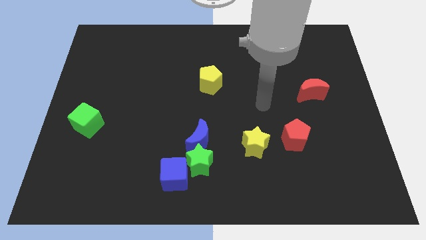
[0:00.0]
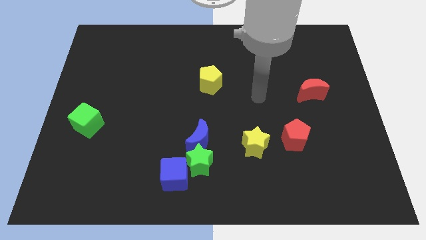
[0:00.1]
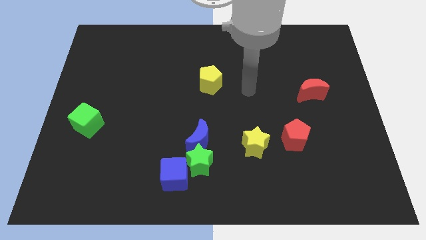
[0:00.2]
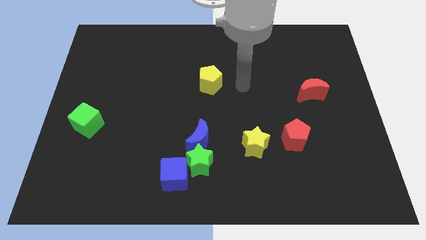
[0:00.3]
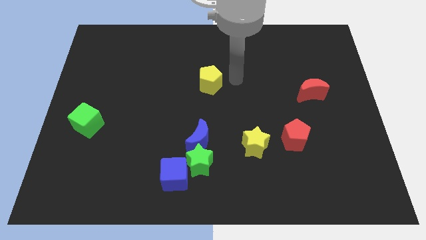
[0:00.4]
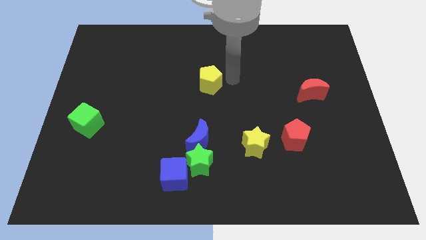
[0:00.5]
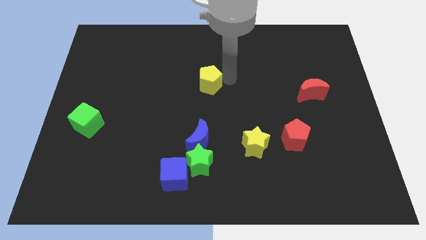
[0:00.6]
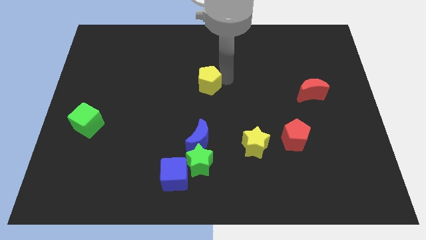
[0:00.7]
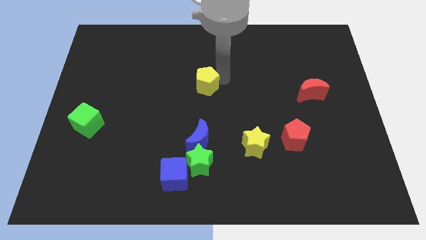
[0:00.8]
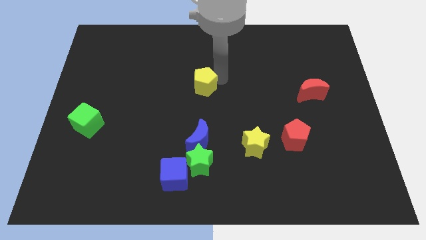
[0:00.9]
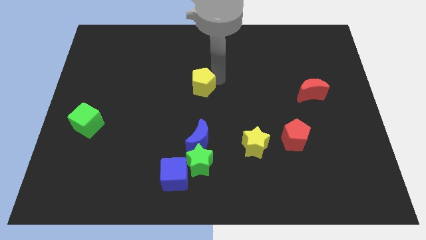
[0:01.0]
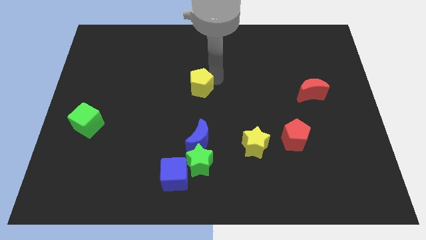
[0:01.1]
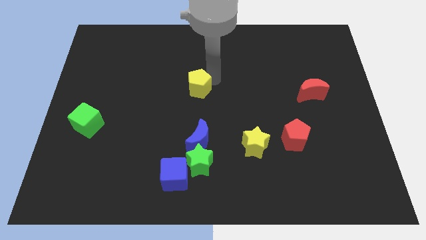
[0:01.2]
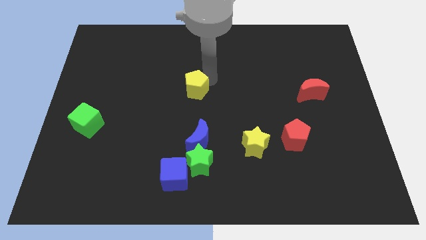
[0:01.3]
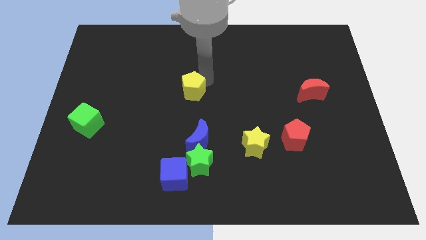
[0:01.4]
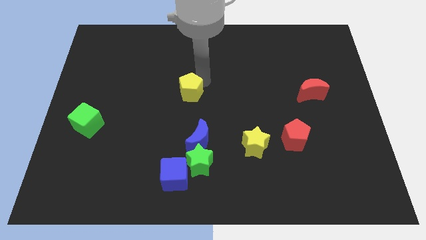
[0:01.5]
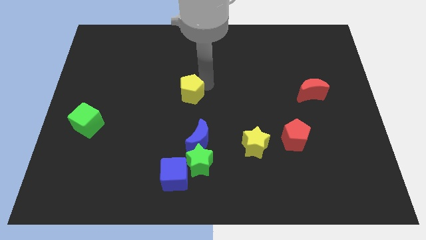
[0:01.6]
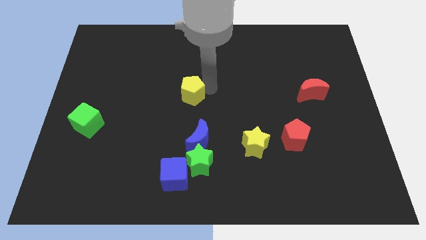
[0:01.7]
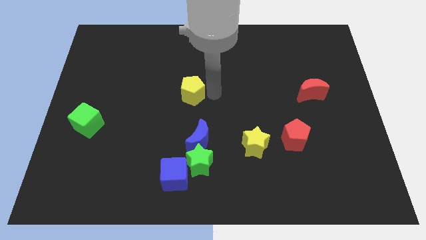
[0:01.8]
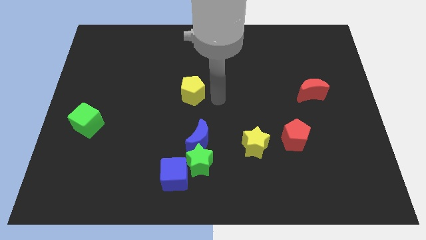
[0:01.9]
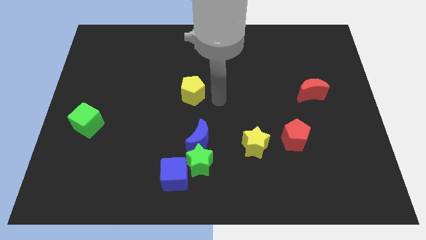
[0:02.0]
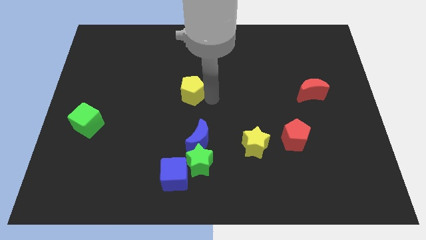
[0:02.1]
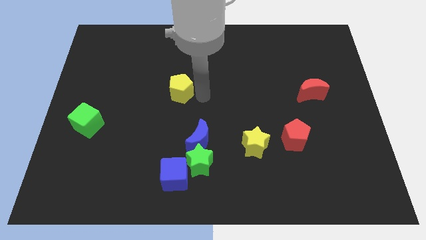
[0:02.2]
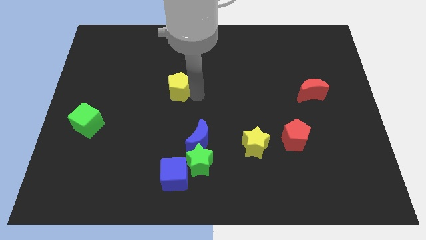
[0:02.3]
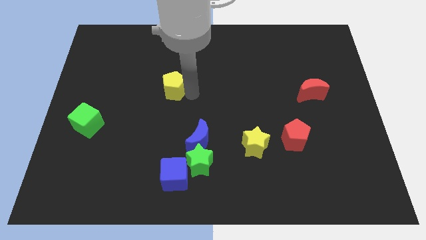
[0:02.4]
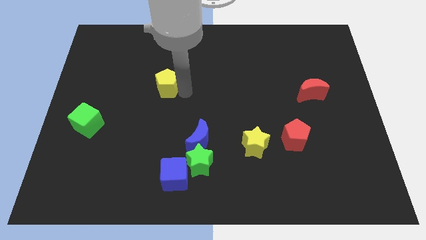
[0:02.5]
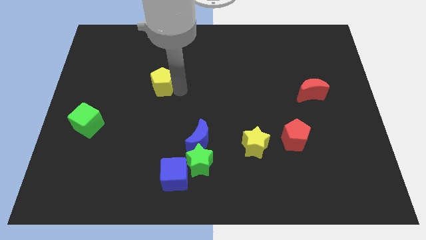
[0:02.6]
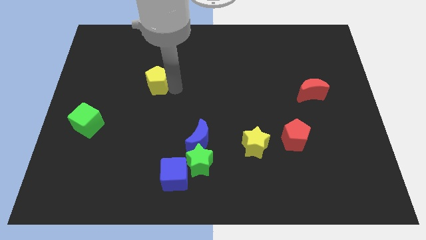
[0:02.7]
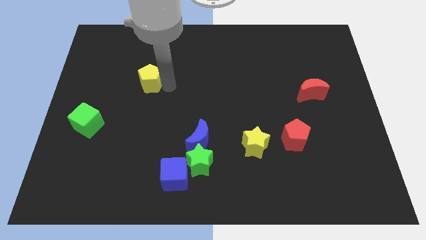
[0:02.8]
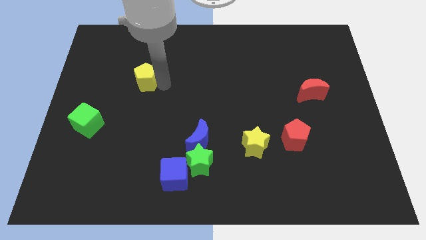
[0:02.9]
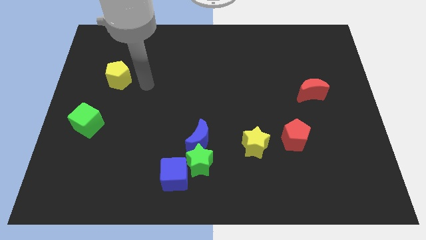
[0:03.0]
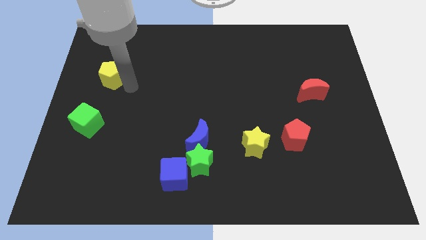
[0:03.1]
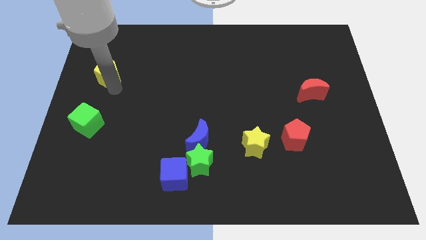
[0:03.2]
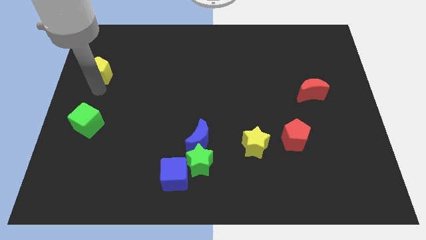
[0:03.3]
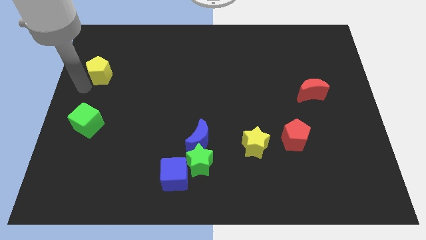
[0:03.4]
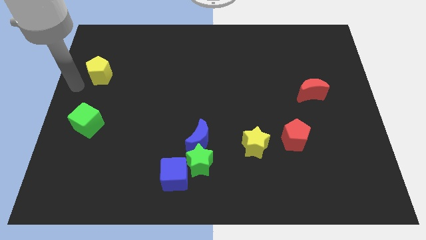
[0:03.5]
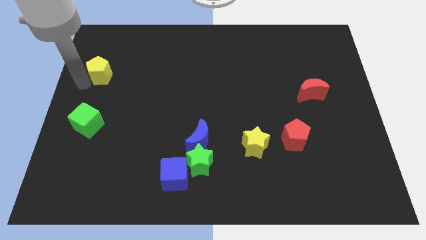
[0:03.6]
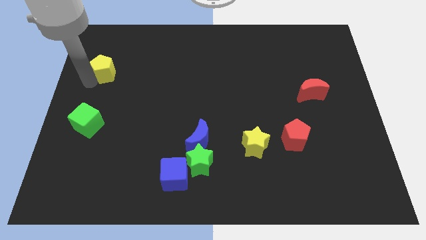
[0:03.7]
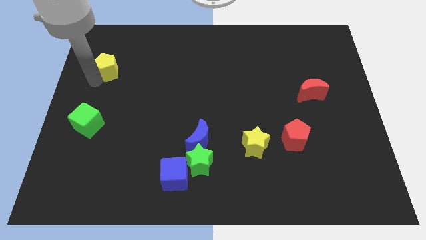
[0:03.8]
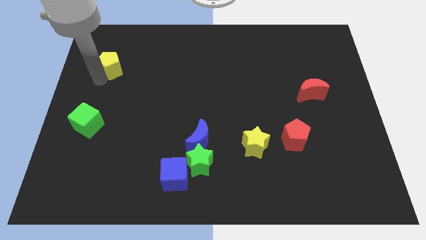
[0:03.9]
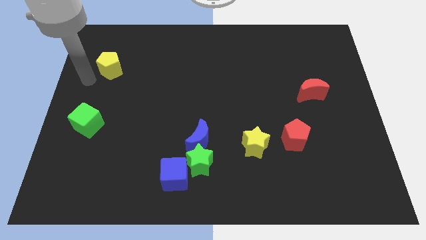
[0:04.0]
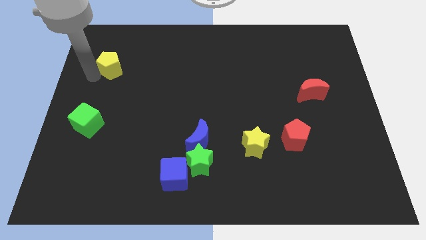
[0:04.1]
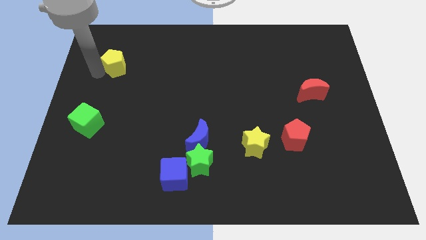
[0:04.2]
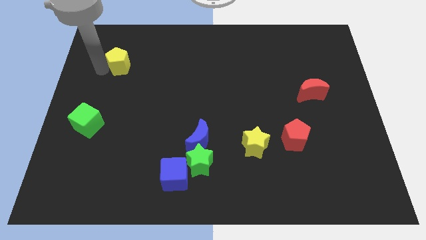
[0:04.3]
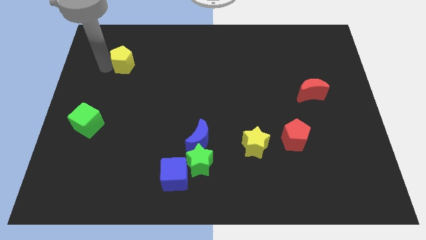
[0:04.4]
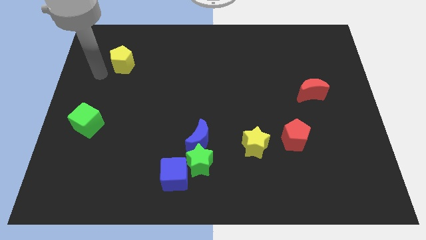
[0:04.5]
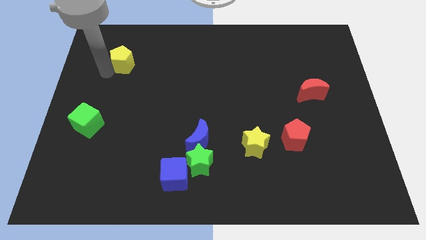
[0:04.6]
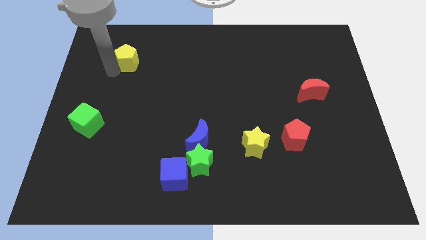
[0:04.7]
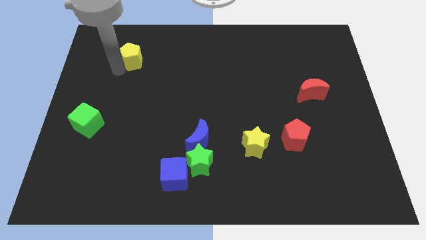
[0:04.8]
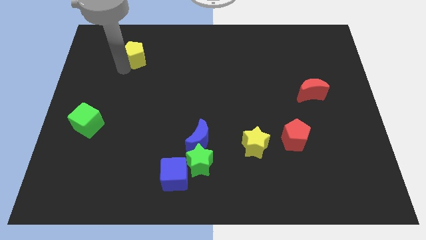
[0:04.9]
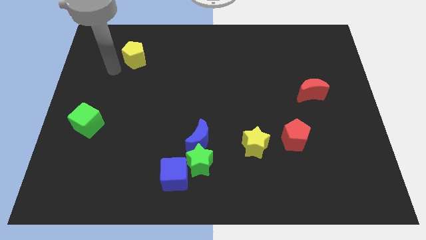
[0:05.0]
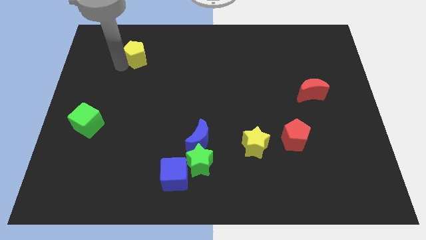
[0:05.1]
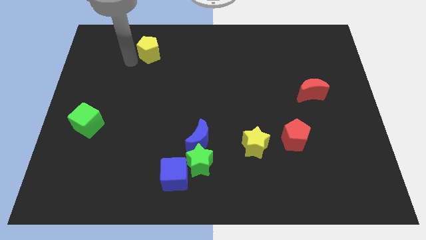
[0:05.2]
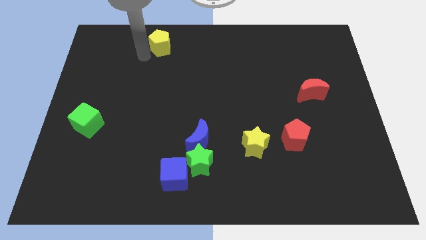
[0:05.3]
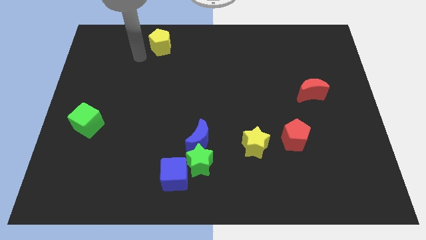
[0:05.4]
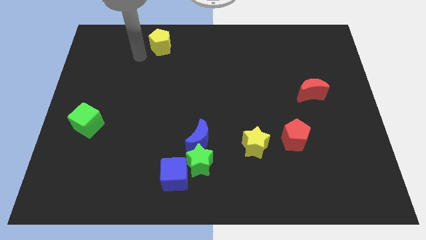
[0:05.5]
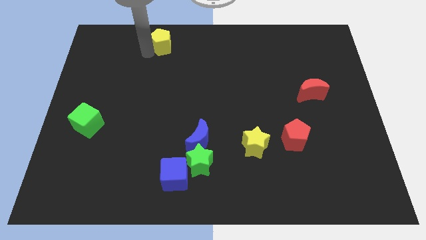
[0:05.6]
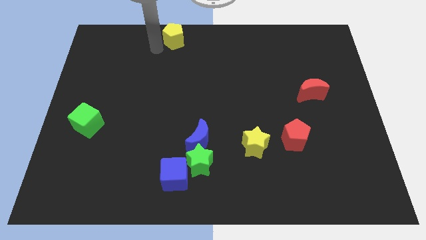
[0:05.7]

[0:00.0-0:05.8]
push the yellow pentagon to the top side

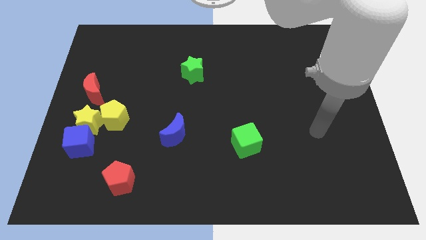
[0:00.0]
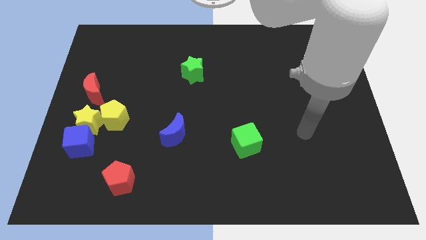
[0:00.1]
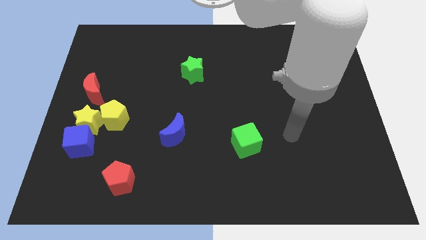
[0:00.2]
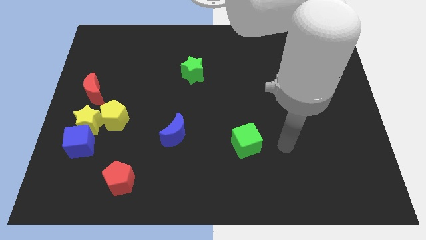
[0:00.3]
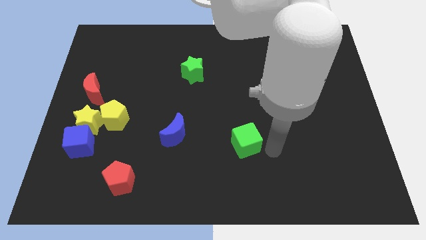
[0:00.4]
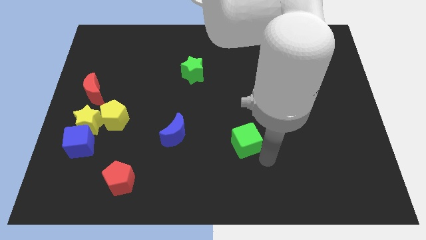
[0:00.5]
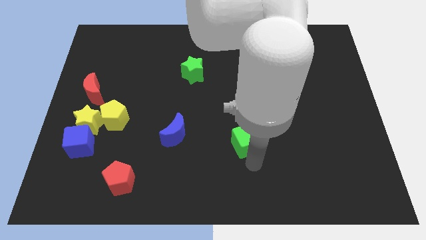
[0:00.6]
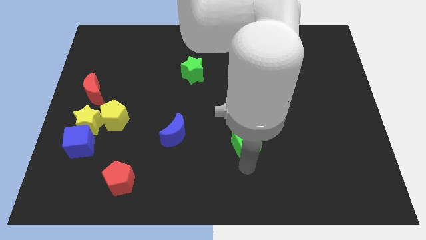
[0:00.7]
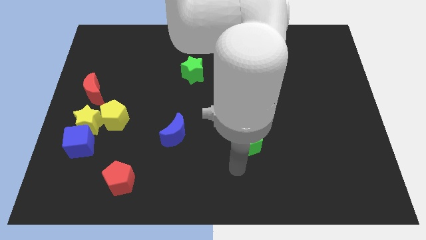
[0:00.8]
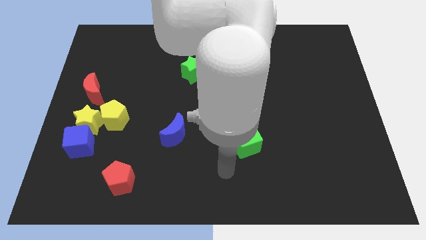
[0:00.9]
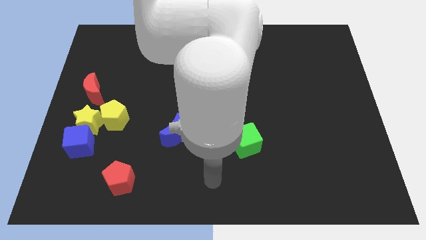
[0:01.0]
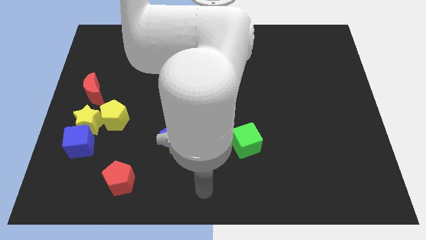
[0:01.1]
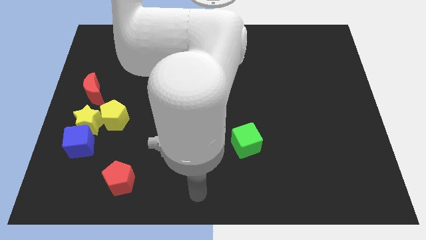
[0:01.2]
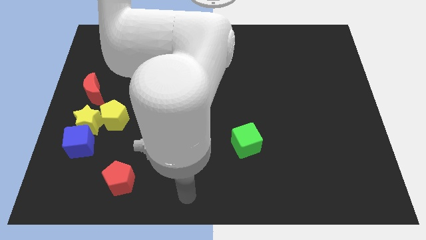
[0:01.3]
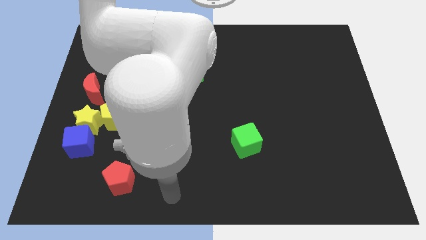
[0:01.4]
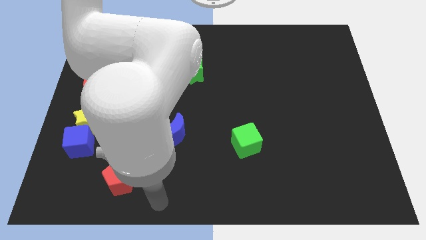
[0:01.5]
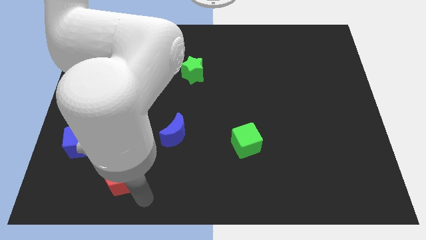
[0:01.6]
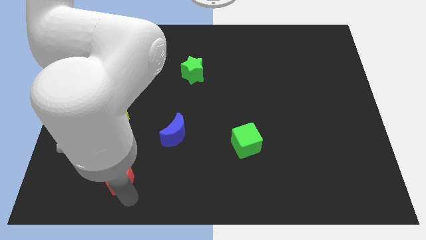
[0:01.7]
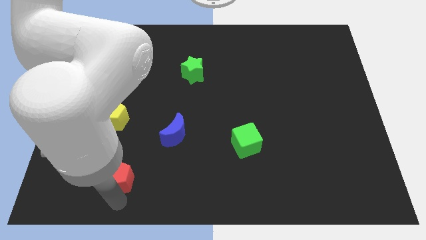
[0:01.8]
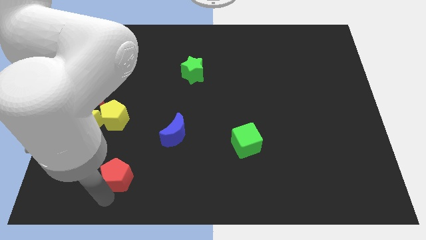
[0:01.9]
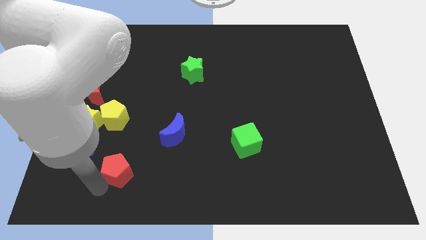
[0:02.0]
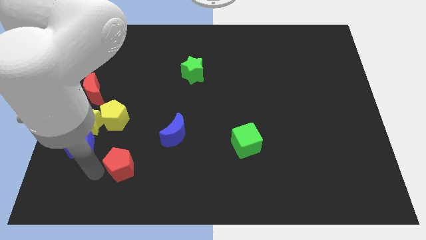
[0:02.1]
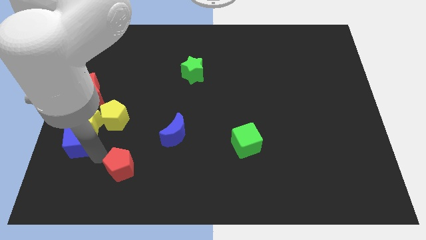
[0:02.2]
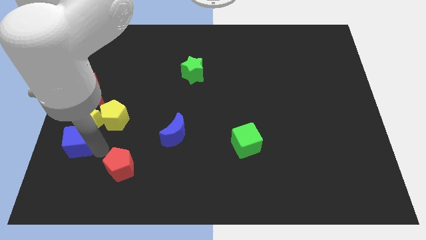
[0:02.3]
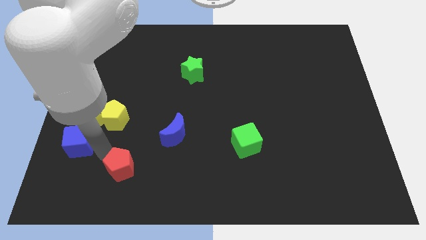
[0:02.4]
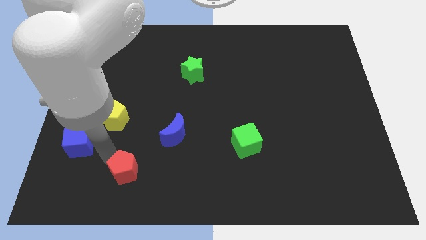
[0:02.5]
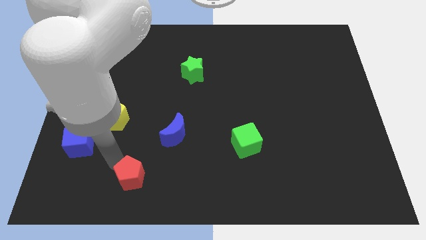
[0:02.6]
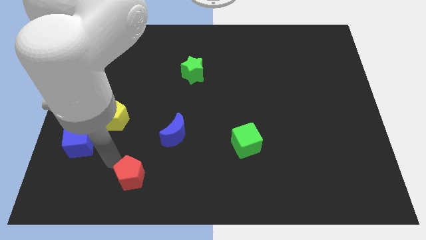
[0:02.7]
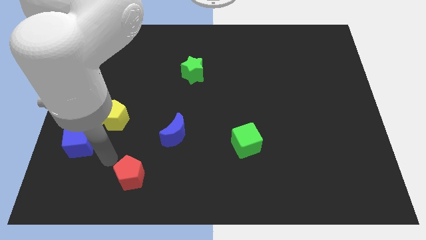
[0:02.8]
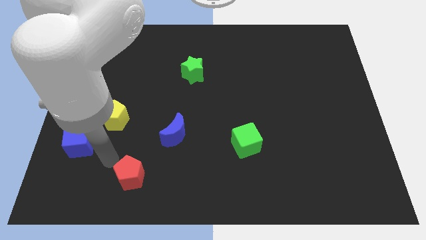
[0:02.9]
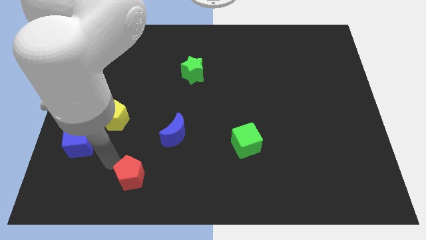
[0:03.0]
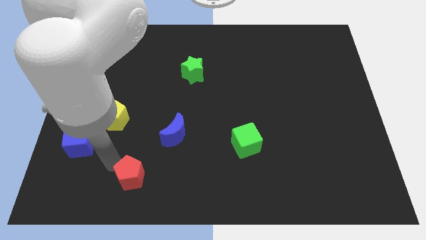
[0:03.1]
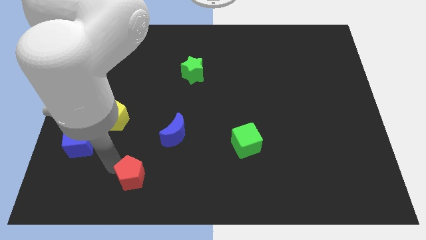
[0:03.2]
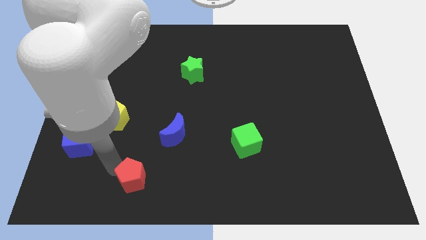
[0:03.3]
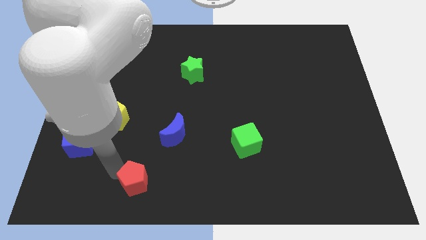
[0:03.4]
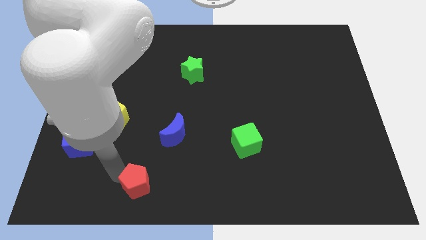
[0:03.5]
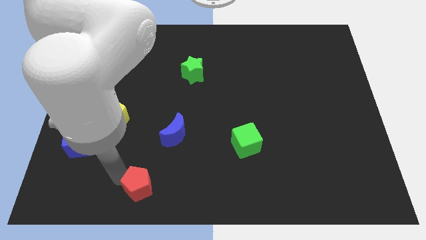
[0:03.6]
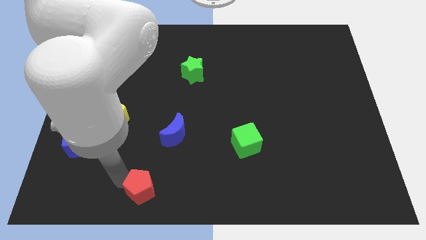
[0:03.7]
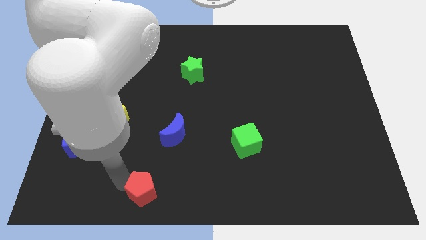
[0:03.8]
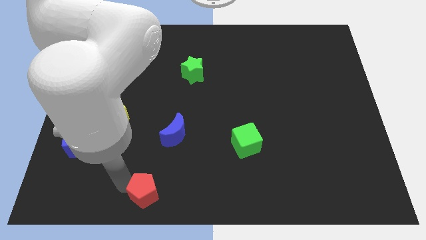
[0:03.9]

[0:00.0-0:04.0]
put the red pentagon to the bottom side
